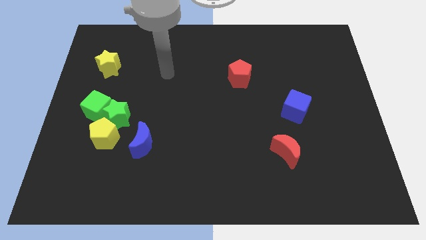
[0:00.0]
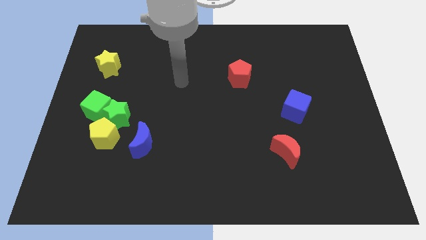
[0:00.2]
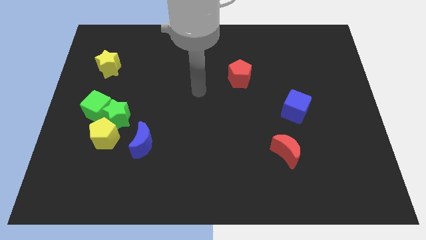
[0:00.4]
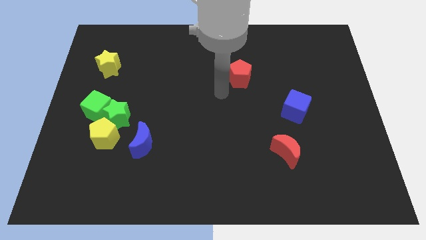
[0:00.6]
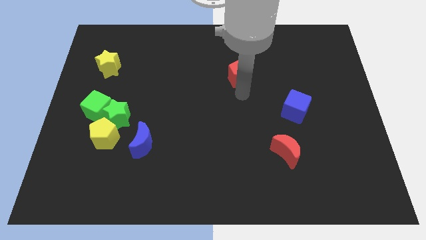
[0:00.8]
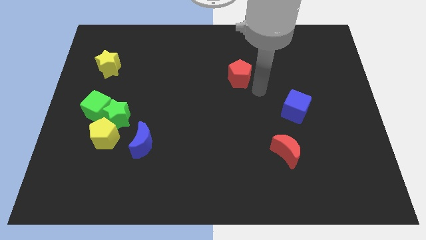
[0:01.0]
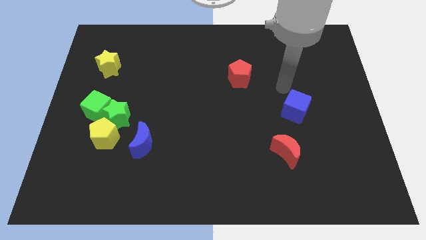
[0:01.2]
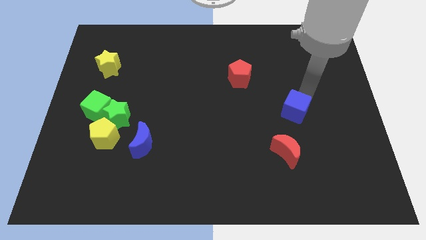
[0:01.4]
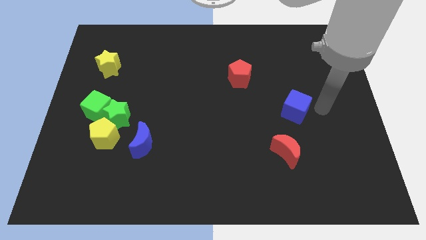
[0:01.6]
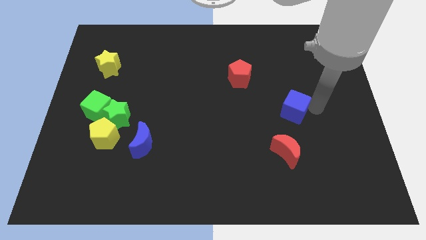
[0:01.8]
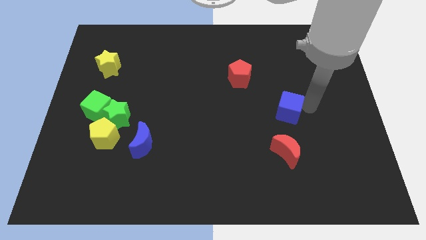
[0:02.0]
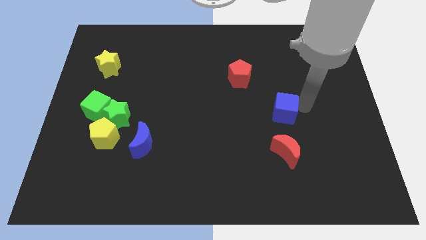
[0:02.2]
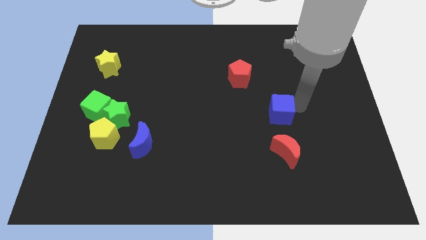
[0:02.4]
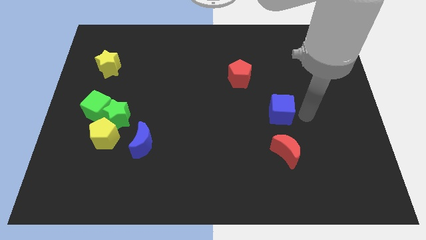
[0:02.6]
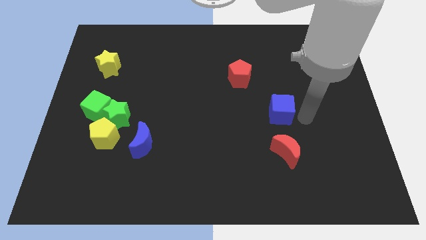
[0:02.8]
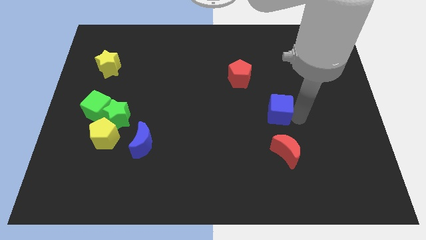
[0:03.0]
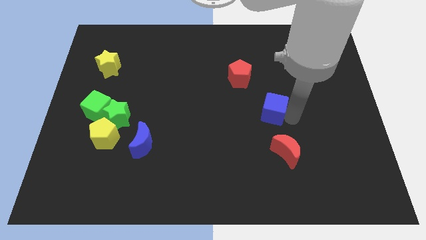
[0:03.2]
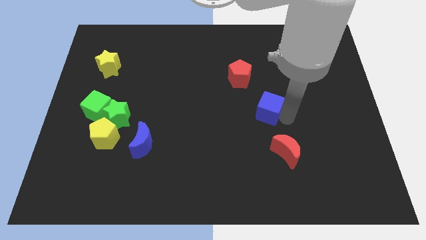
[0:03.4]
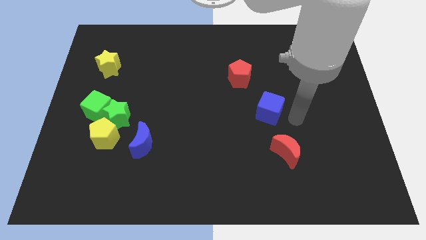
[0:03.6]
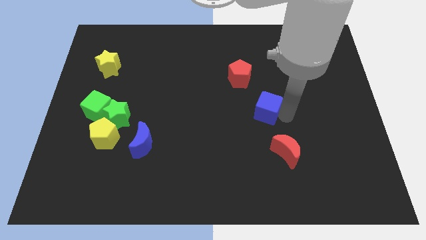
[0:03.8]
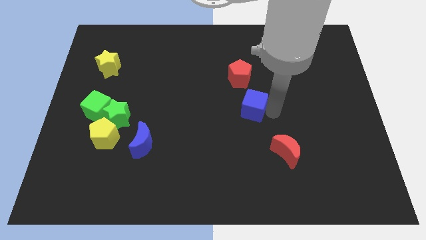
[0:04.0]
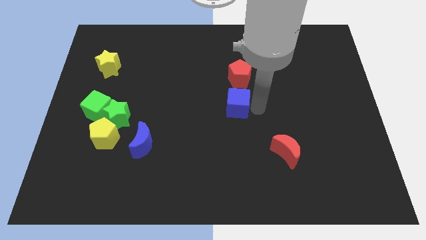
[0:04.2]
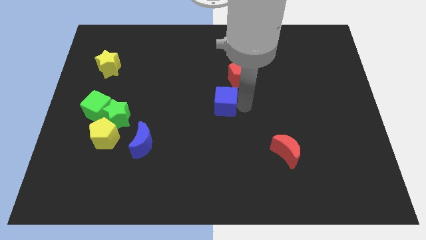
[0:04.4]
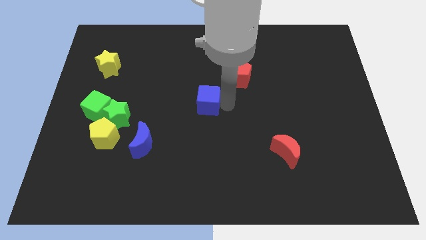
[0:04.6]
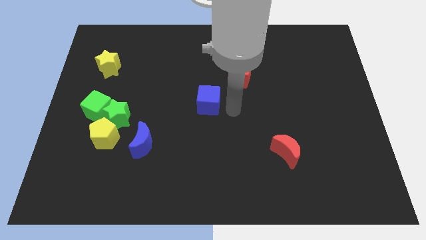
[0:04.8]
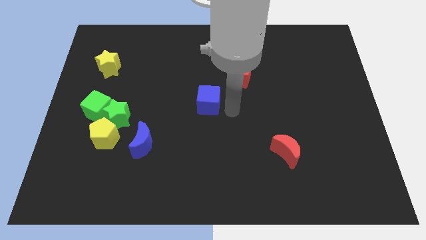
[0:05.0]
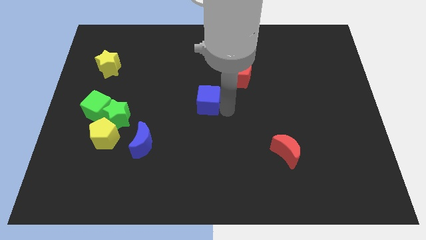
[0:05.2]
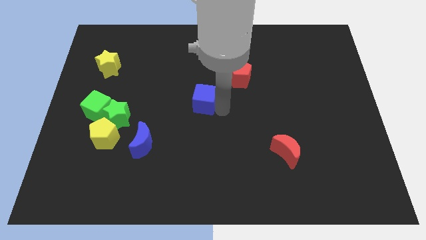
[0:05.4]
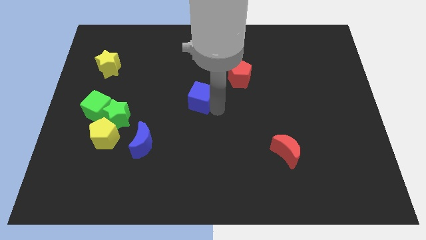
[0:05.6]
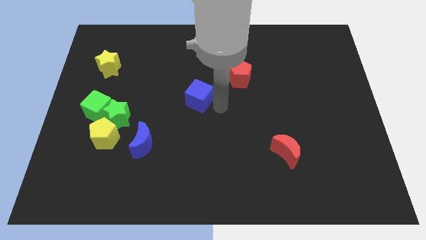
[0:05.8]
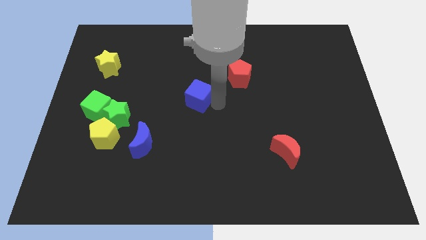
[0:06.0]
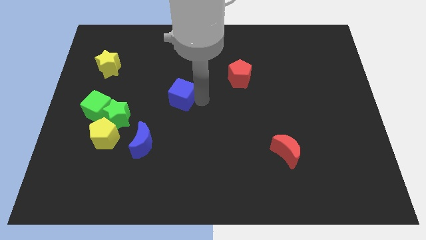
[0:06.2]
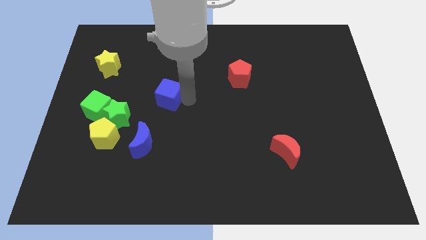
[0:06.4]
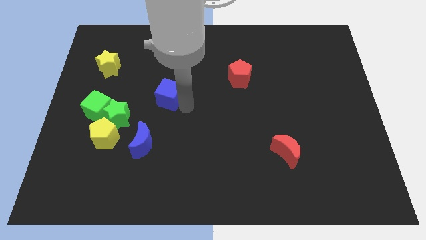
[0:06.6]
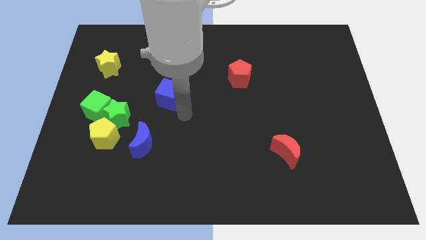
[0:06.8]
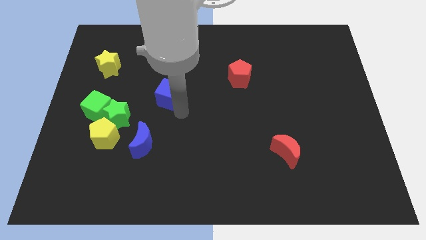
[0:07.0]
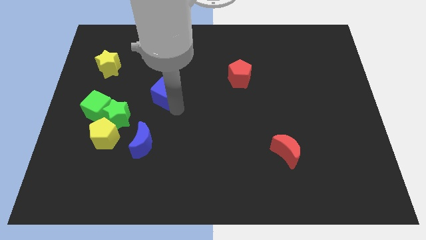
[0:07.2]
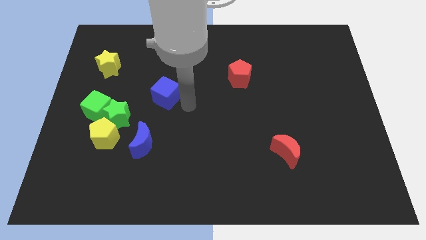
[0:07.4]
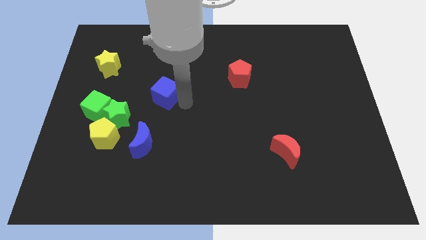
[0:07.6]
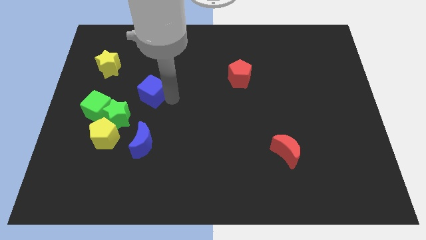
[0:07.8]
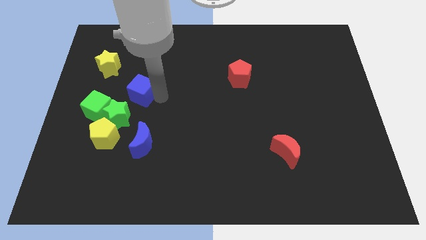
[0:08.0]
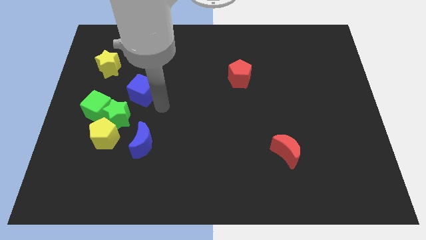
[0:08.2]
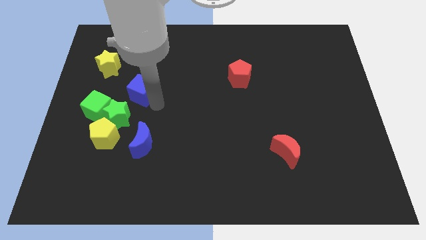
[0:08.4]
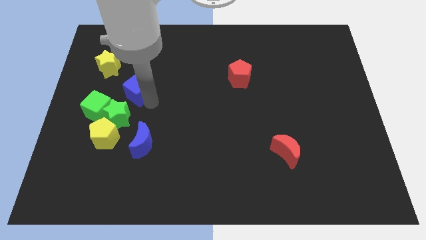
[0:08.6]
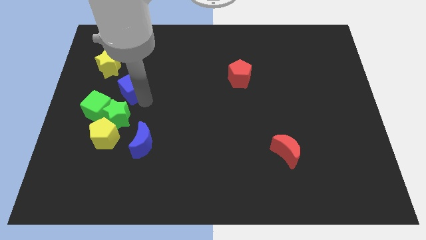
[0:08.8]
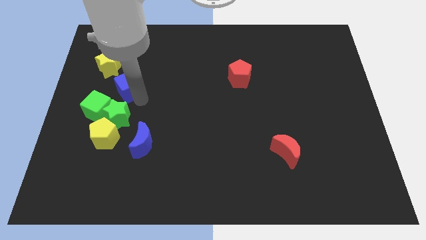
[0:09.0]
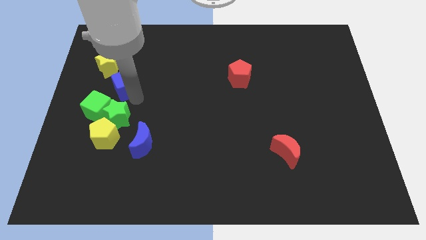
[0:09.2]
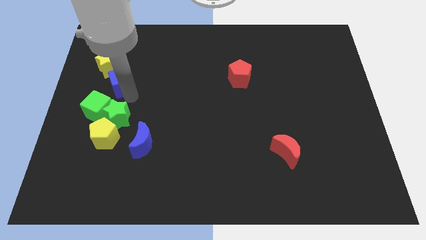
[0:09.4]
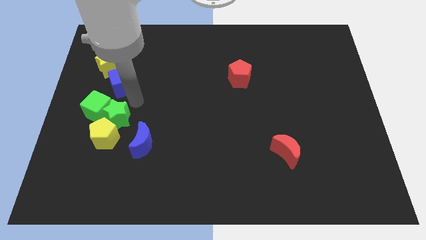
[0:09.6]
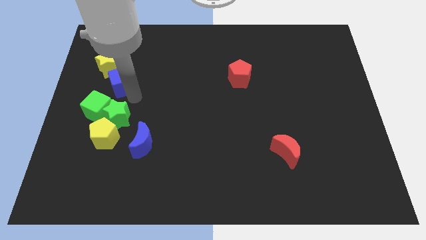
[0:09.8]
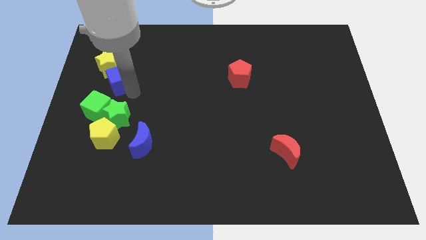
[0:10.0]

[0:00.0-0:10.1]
move the blue cube next to the yellow star

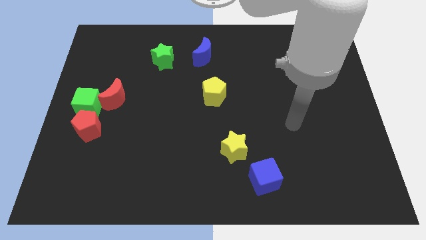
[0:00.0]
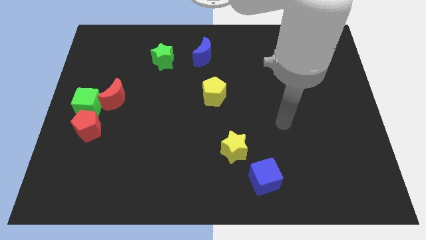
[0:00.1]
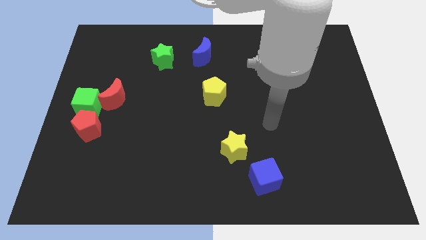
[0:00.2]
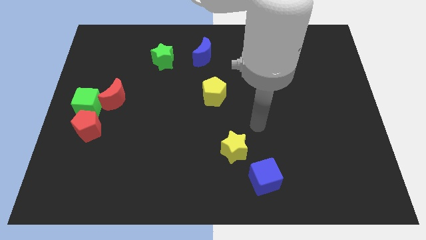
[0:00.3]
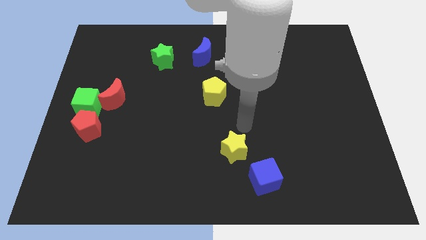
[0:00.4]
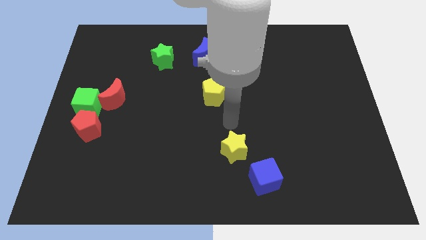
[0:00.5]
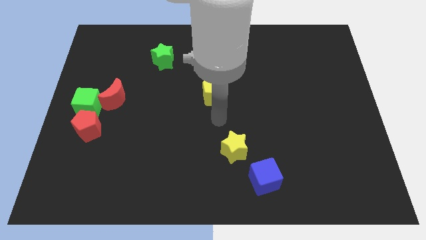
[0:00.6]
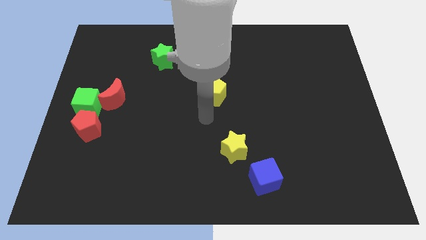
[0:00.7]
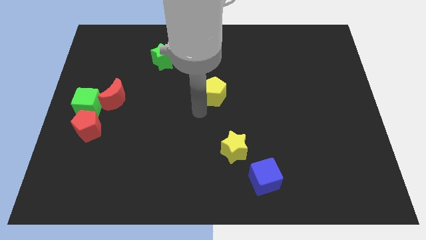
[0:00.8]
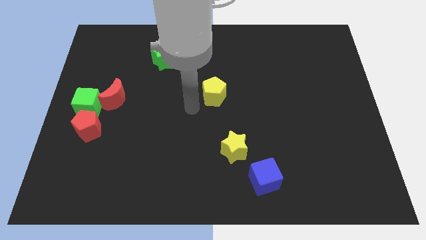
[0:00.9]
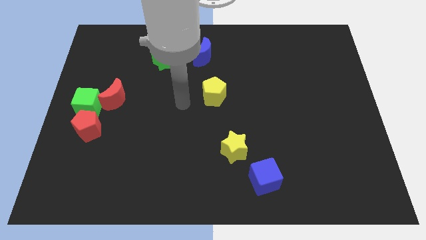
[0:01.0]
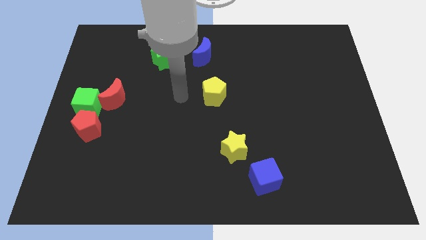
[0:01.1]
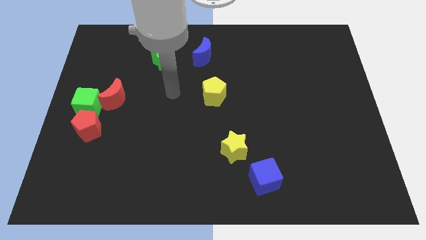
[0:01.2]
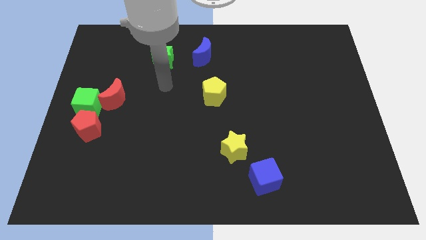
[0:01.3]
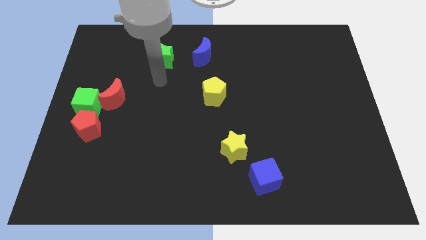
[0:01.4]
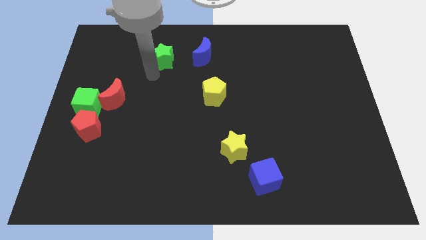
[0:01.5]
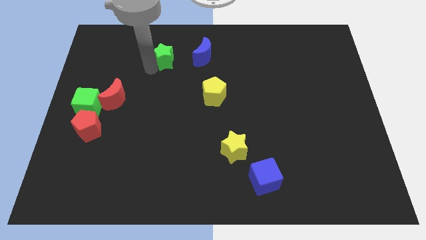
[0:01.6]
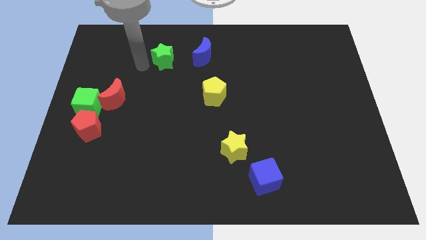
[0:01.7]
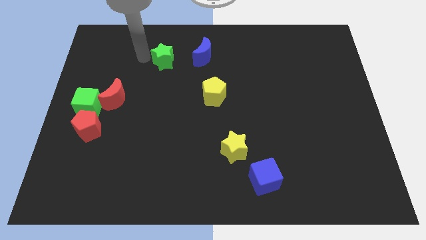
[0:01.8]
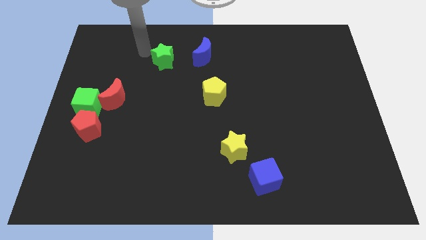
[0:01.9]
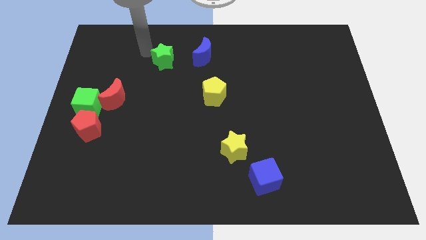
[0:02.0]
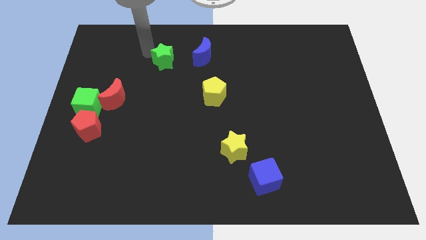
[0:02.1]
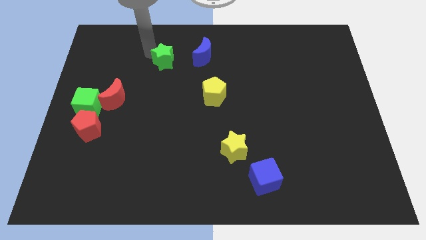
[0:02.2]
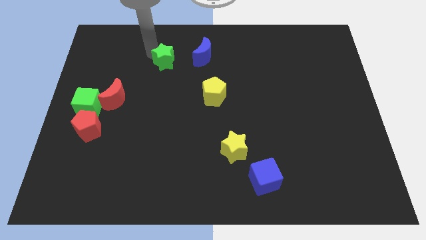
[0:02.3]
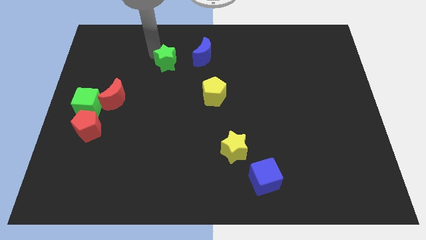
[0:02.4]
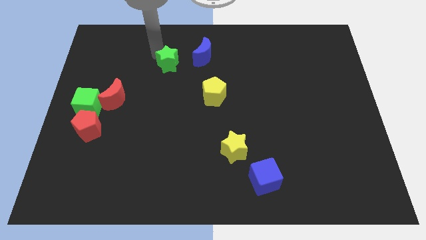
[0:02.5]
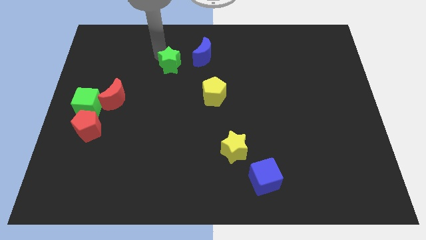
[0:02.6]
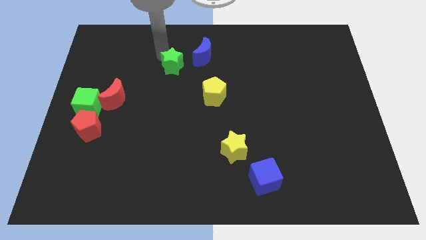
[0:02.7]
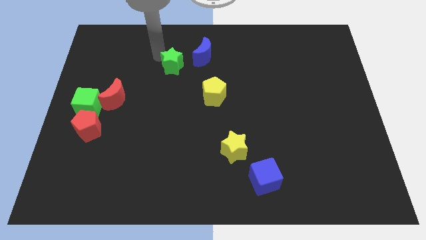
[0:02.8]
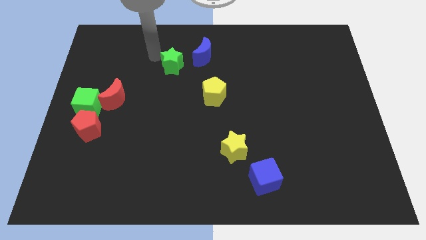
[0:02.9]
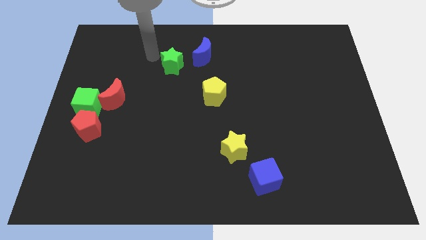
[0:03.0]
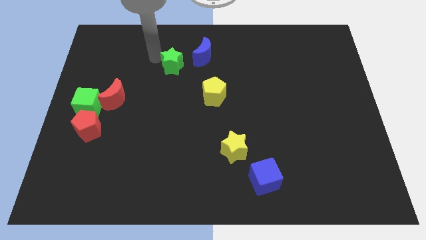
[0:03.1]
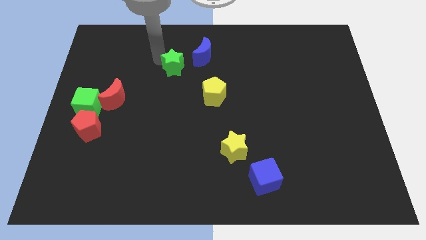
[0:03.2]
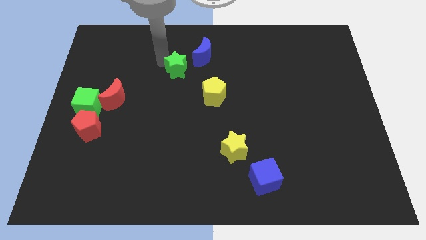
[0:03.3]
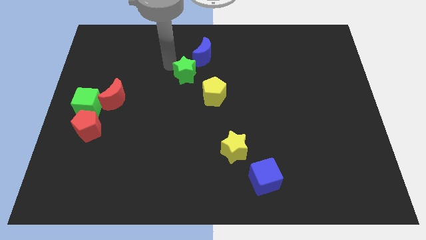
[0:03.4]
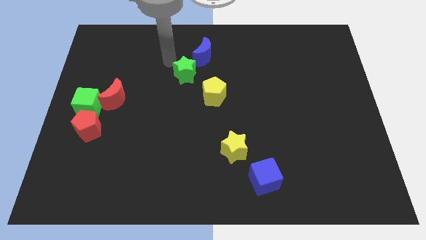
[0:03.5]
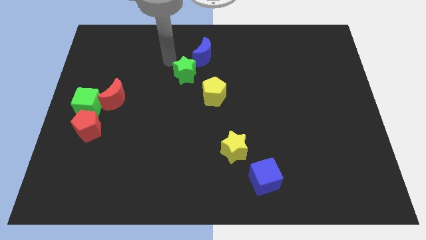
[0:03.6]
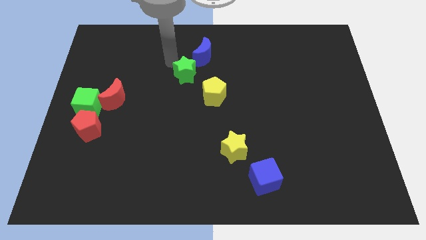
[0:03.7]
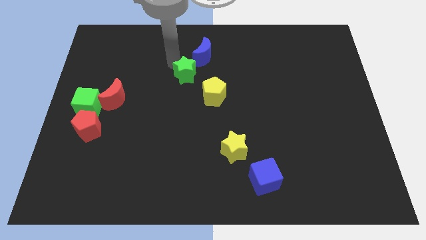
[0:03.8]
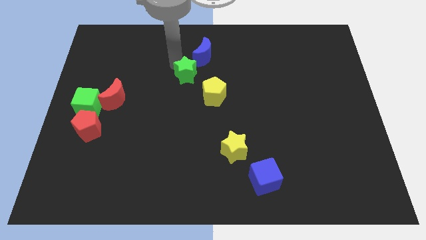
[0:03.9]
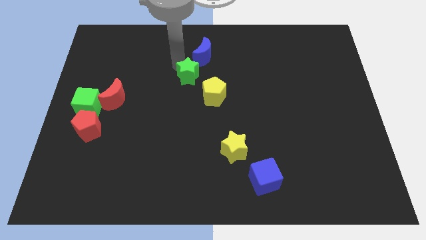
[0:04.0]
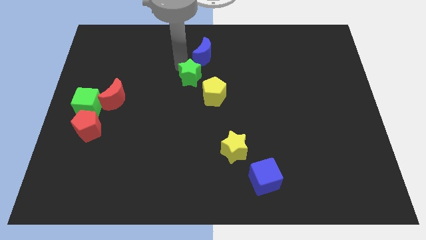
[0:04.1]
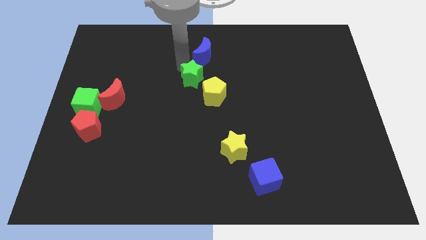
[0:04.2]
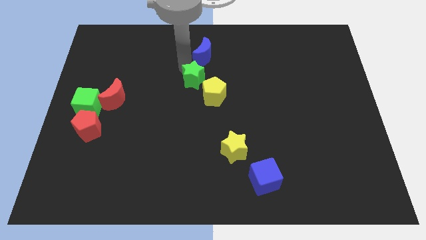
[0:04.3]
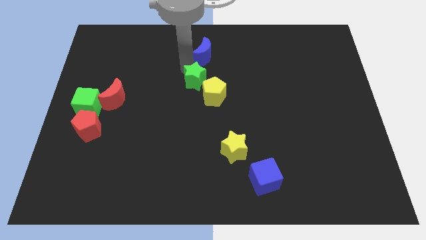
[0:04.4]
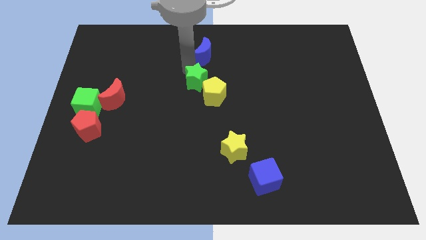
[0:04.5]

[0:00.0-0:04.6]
move the green star close to the yellow pentagon
